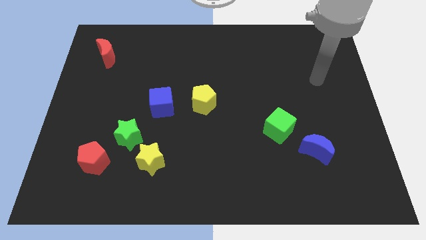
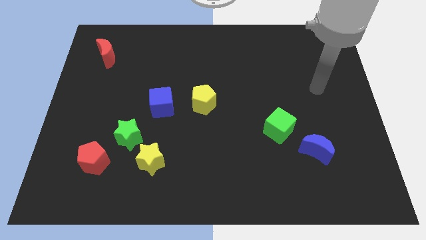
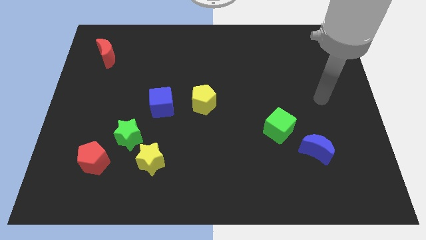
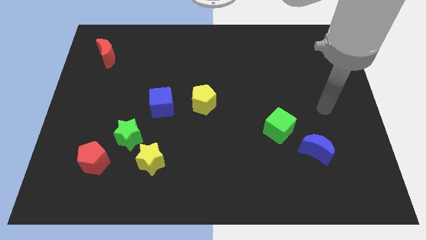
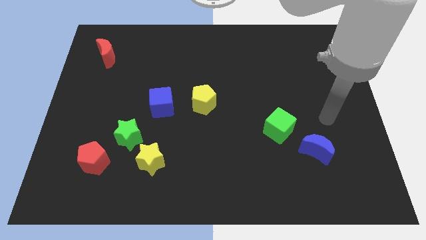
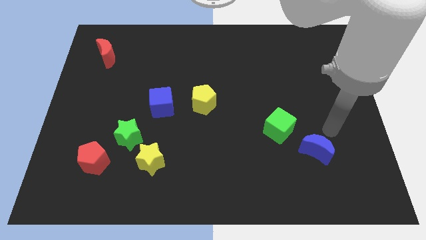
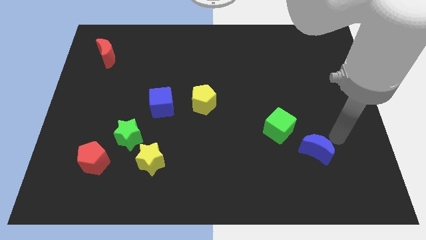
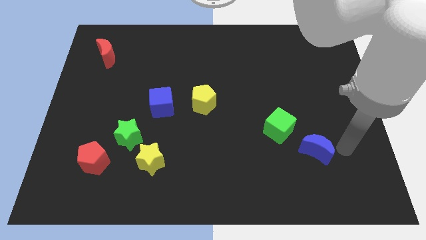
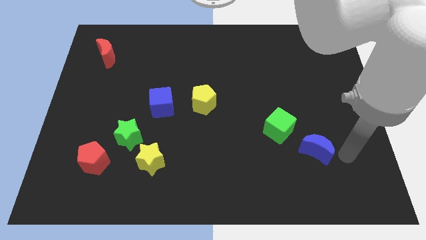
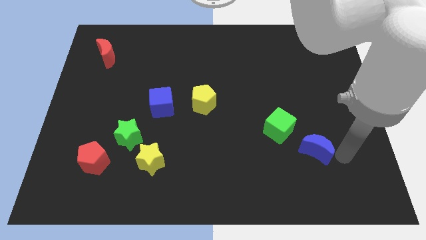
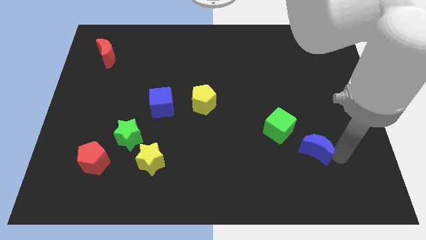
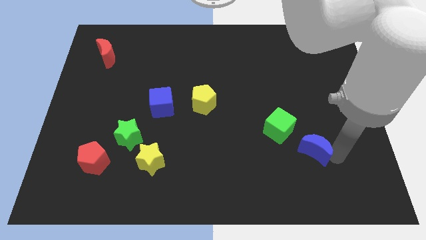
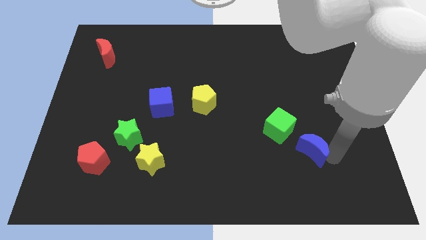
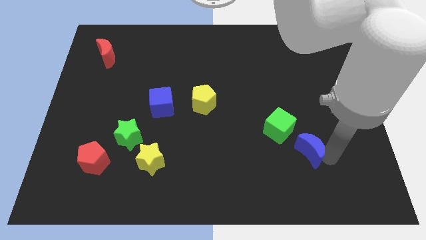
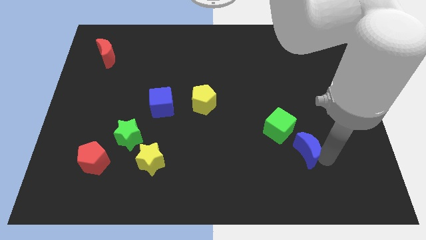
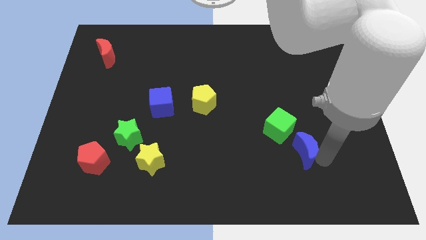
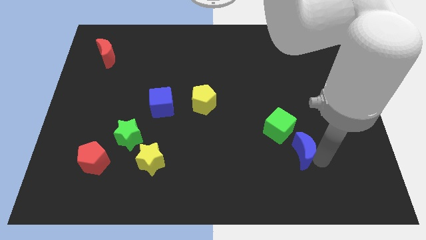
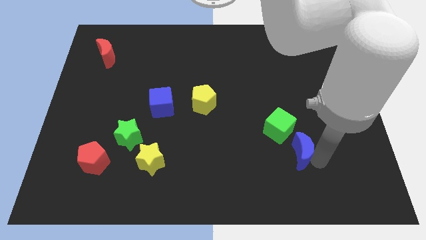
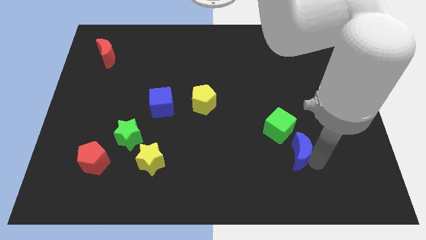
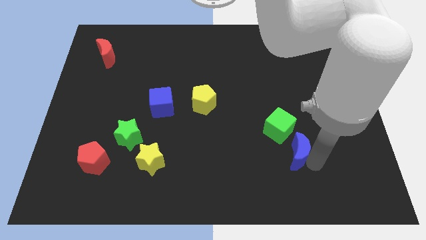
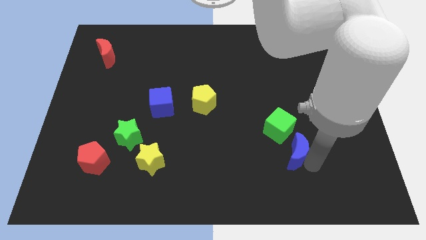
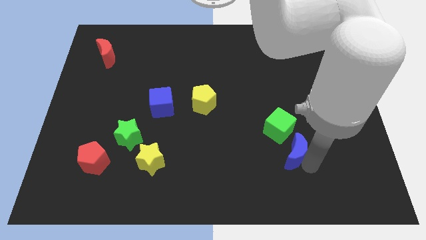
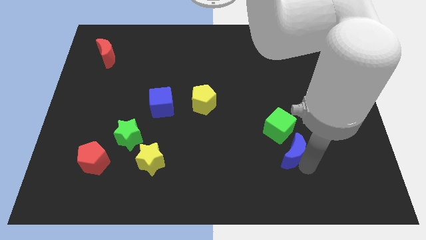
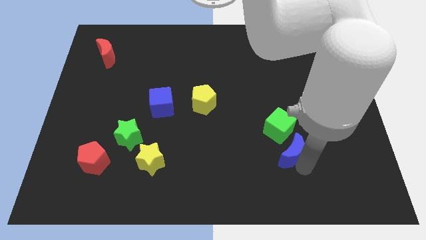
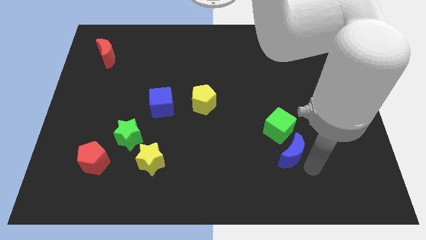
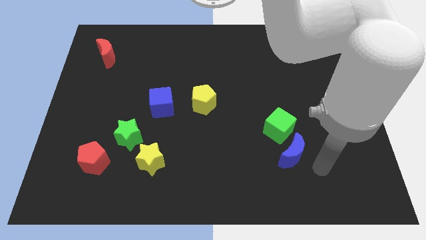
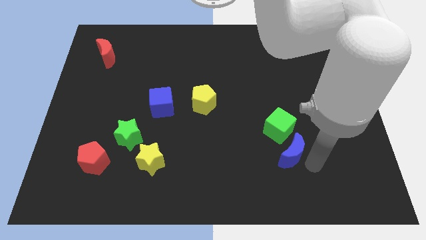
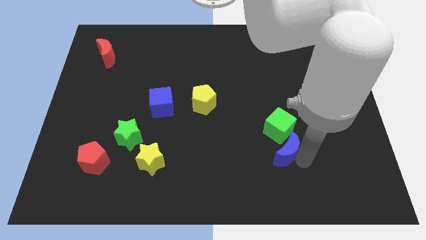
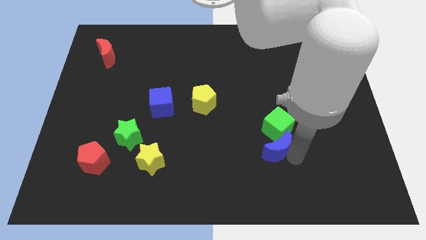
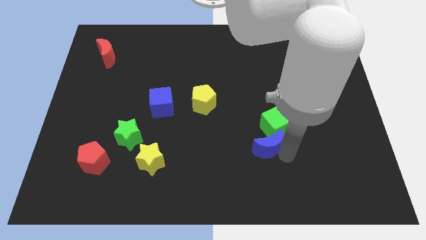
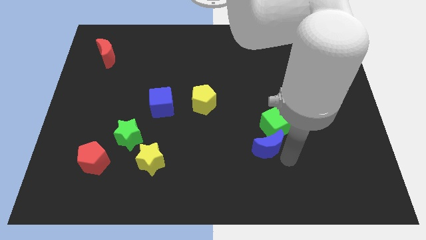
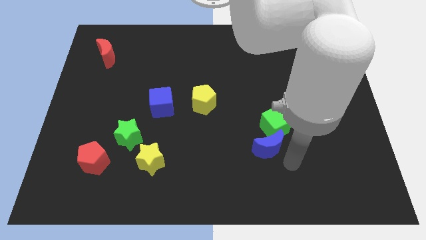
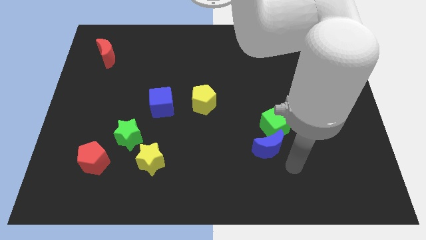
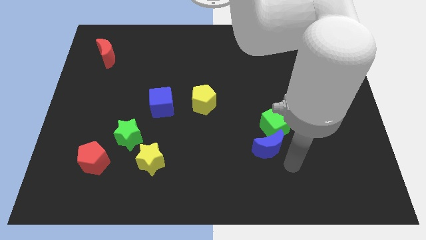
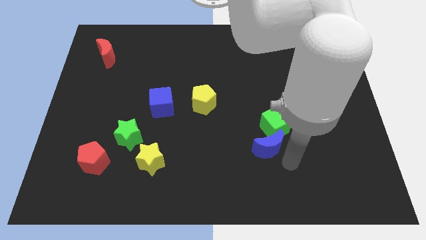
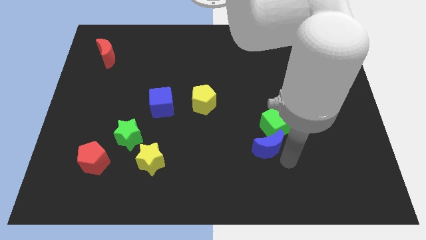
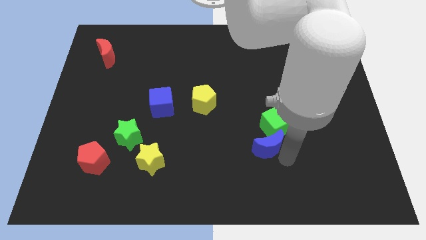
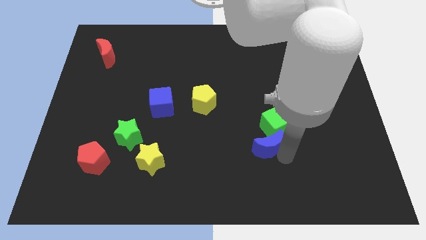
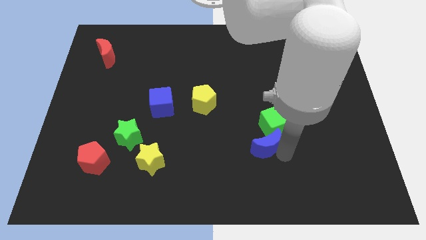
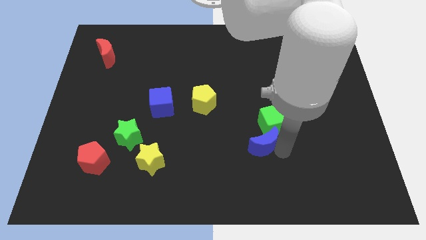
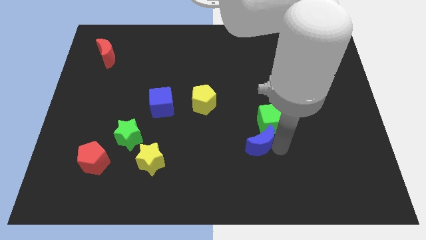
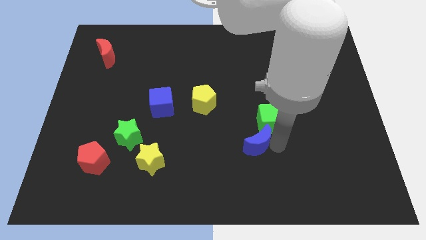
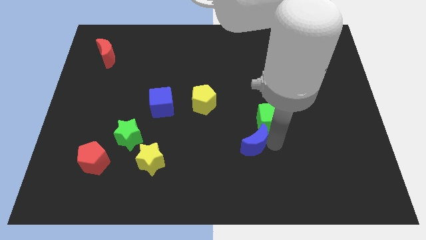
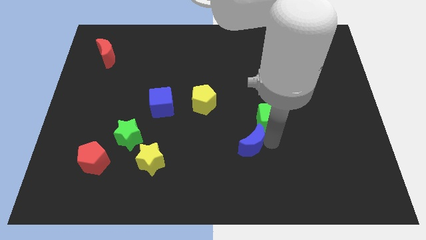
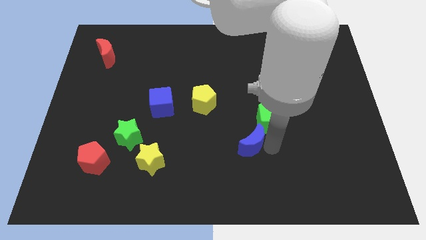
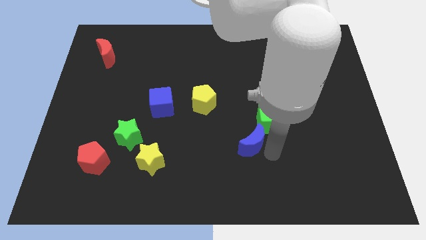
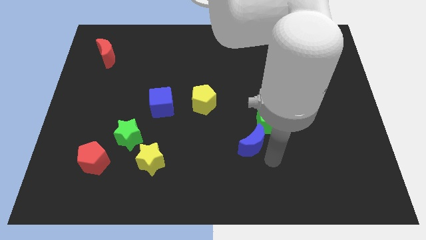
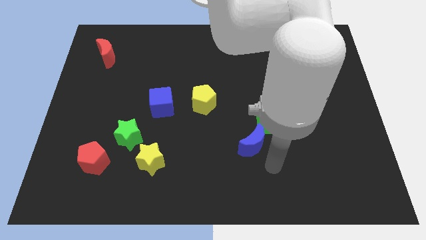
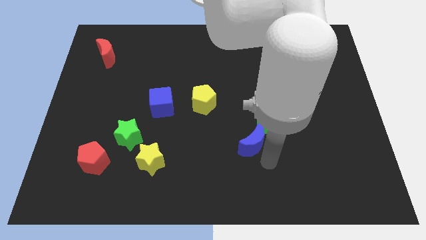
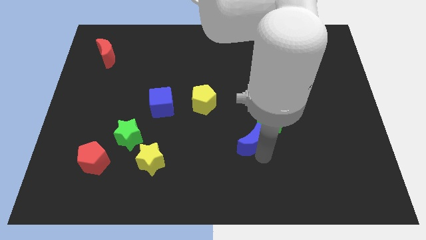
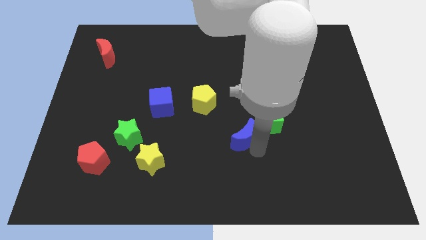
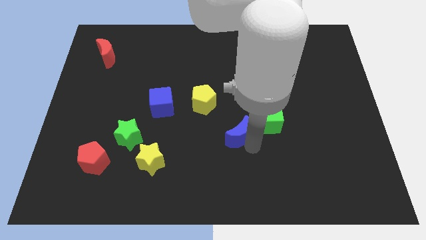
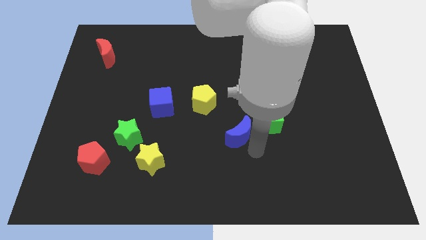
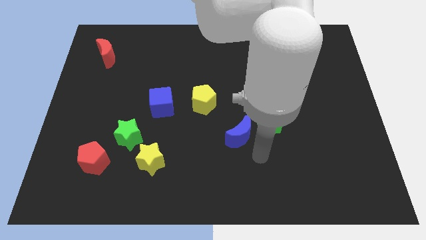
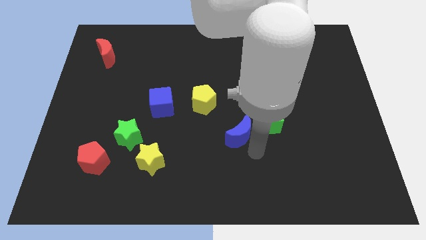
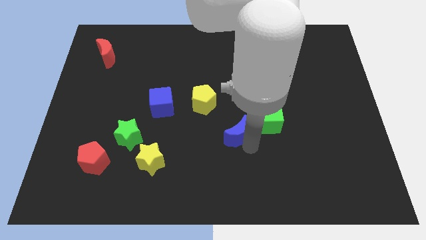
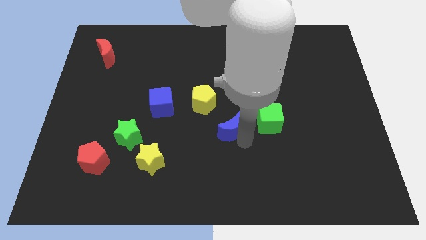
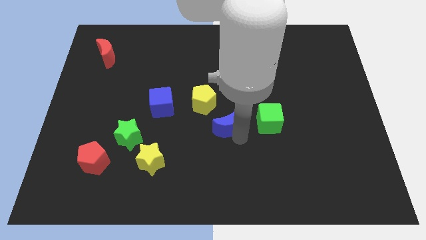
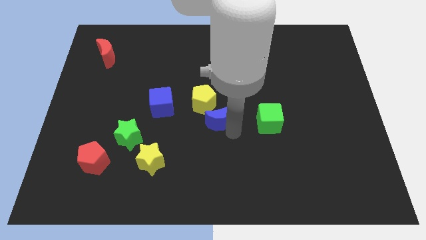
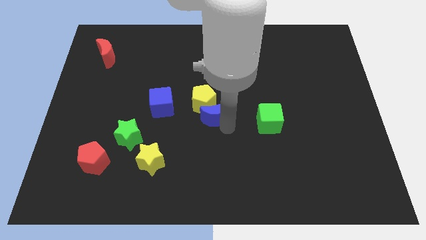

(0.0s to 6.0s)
move the blue moon towards the yellow pentagon

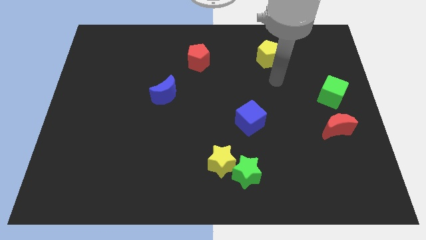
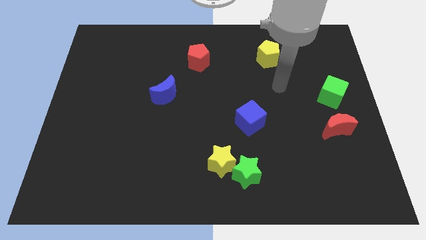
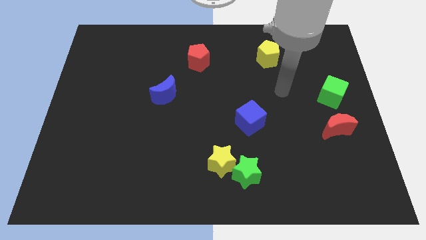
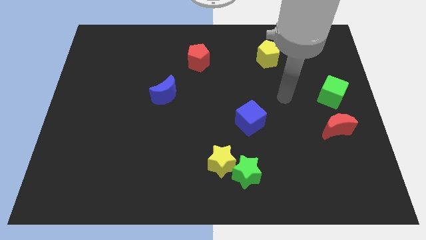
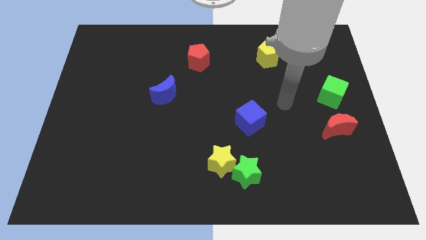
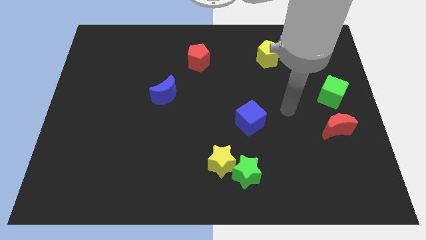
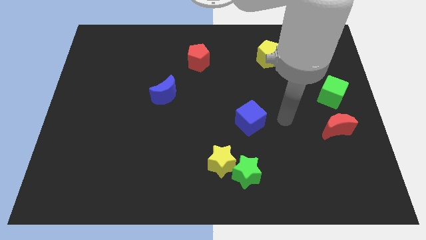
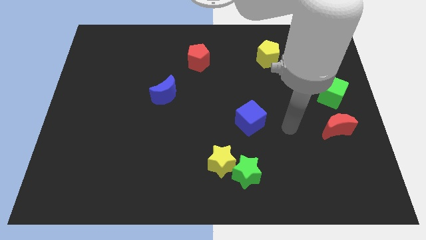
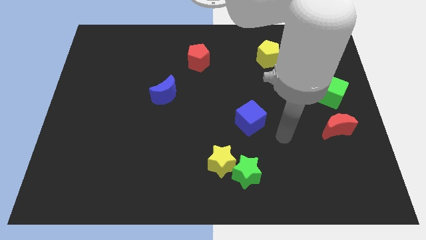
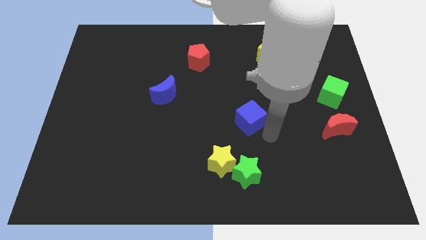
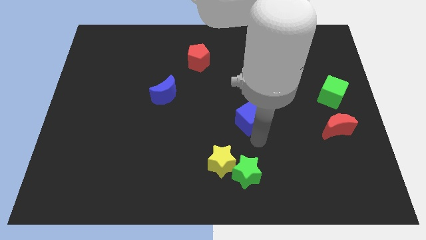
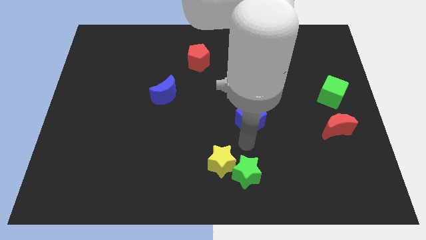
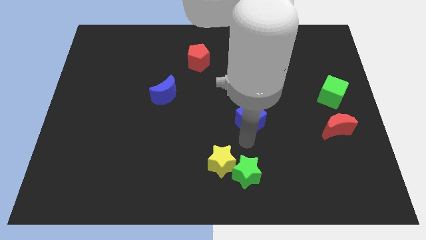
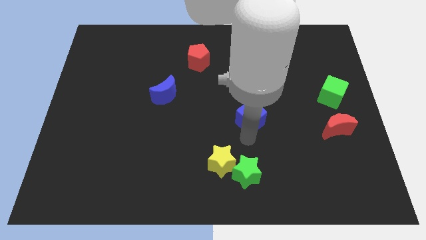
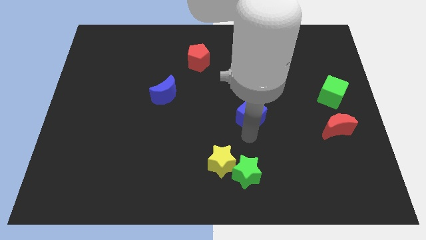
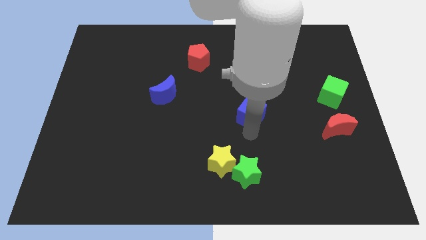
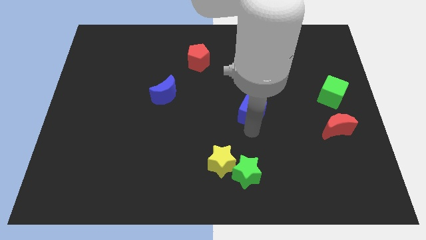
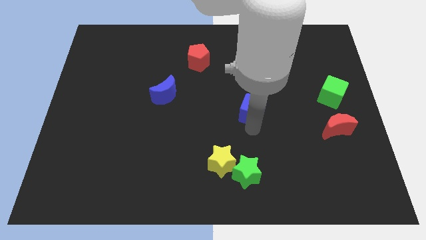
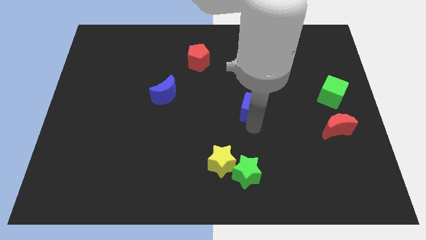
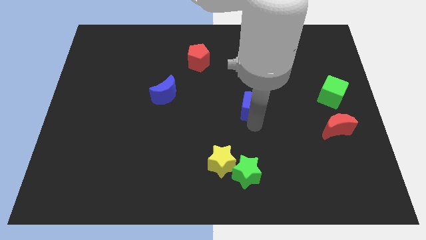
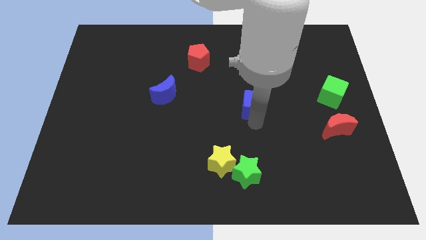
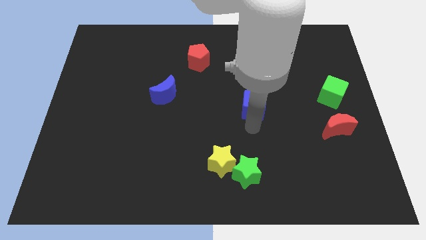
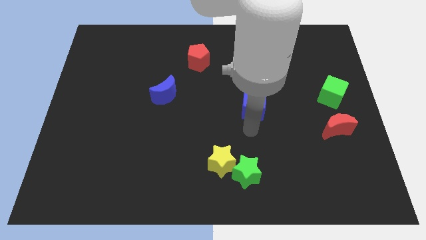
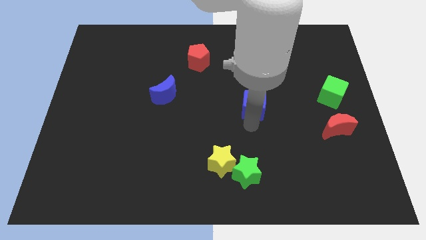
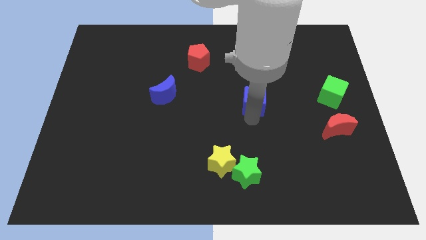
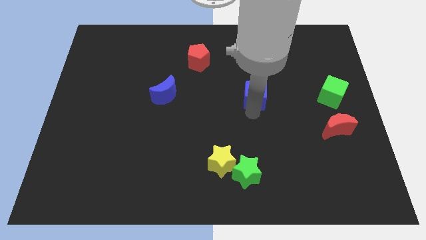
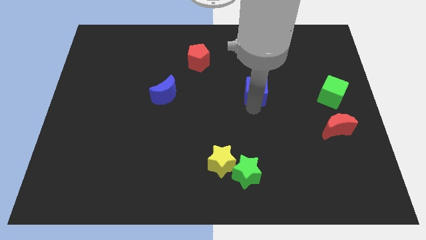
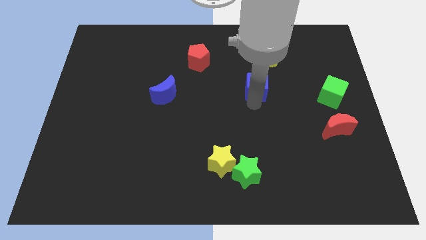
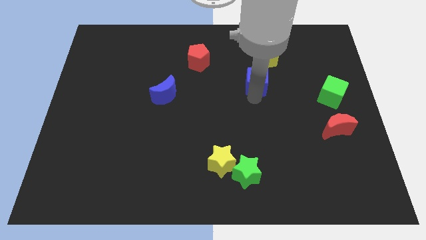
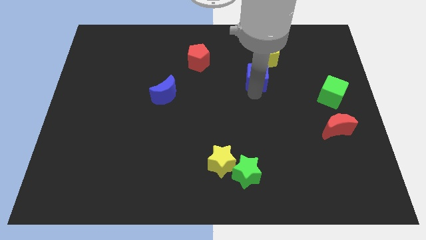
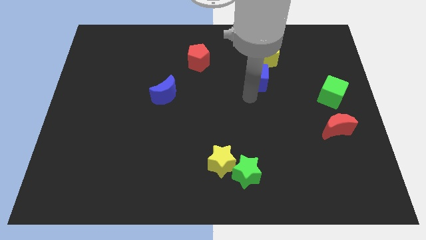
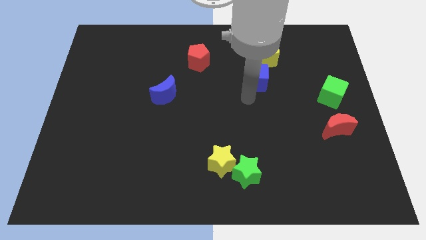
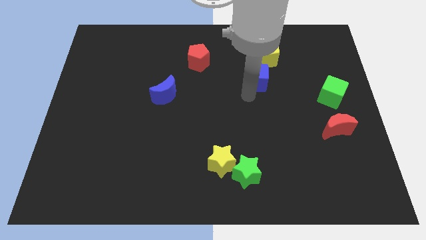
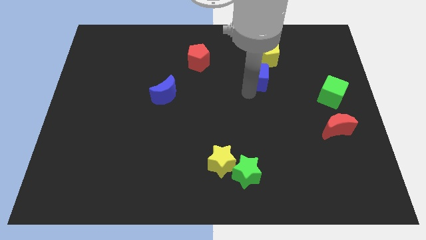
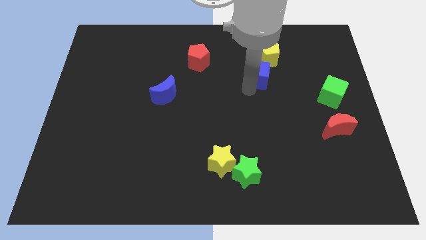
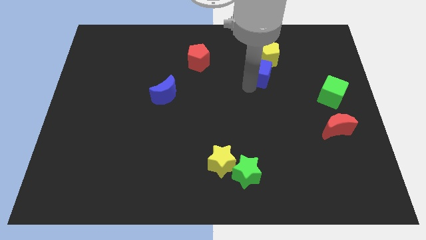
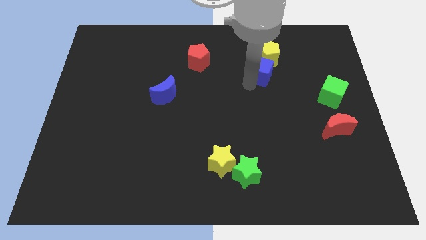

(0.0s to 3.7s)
move the blue cube to the yellow pentagon
